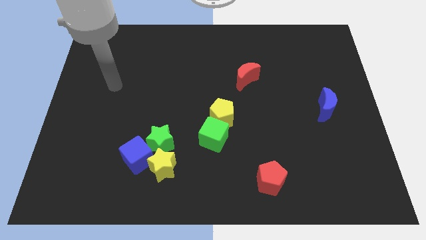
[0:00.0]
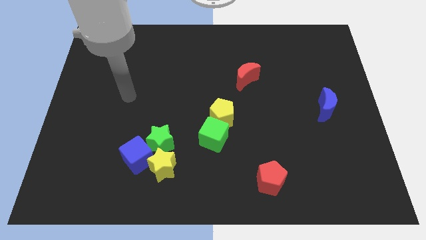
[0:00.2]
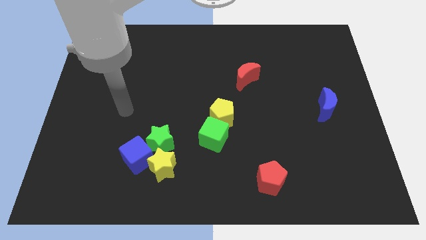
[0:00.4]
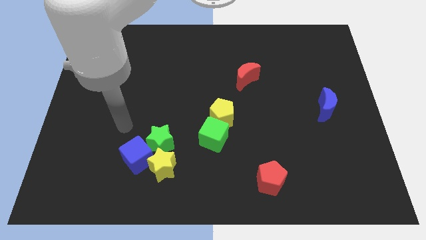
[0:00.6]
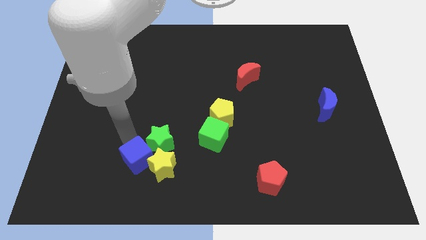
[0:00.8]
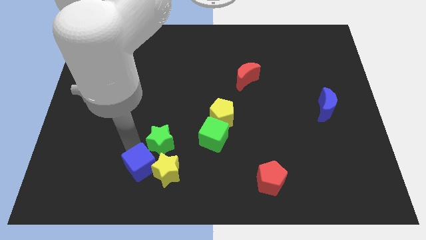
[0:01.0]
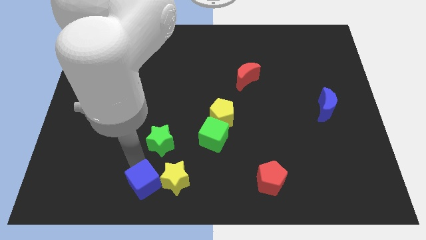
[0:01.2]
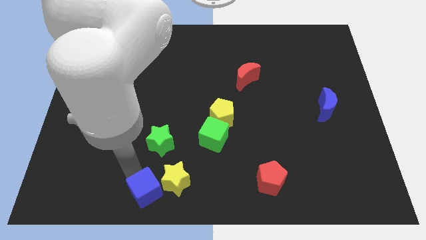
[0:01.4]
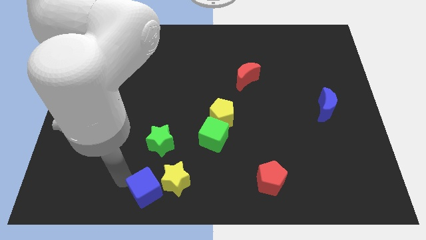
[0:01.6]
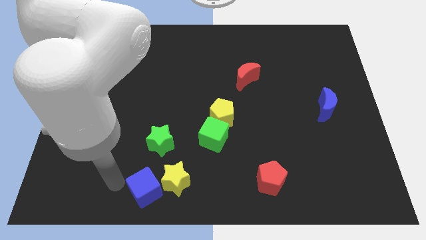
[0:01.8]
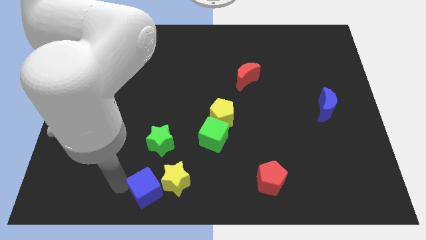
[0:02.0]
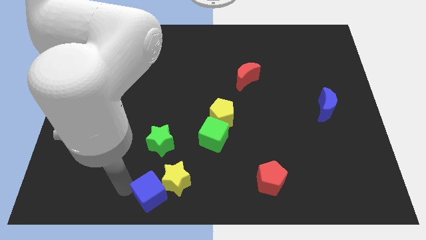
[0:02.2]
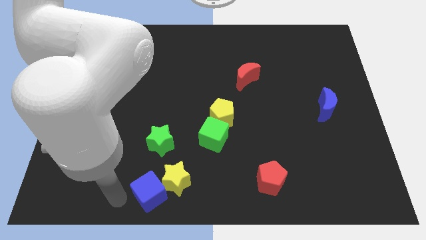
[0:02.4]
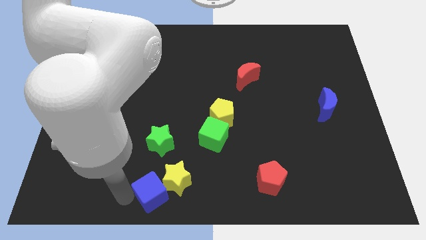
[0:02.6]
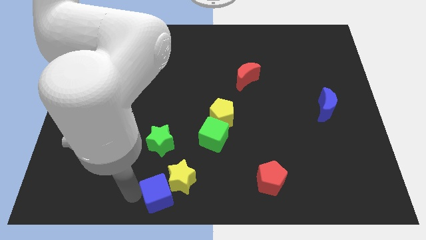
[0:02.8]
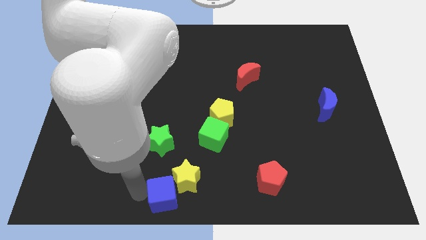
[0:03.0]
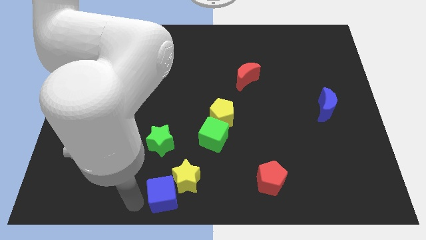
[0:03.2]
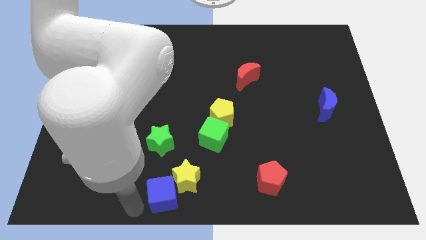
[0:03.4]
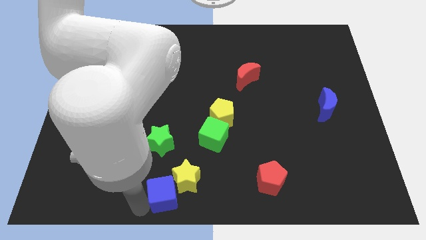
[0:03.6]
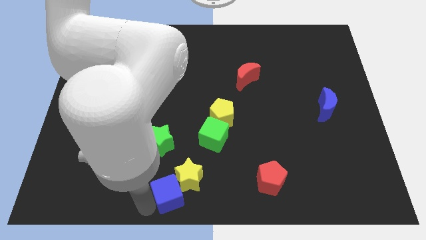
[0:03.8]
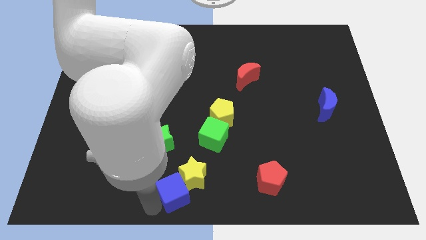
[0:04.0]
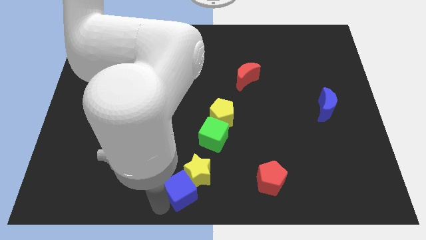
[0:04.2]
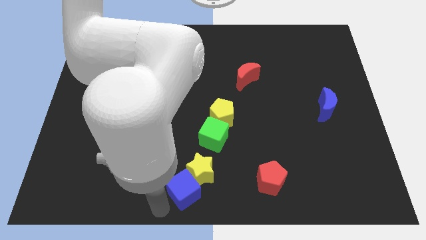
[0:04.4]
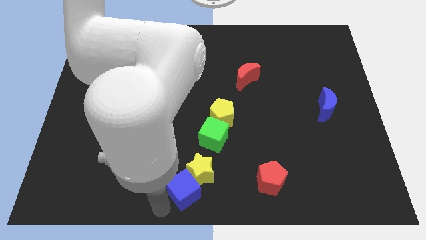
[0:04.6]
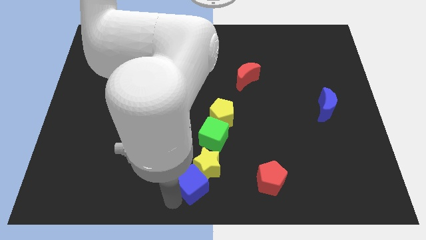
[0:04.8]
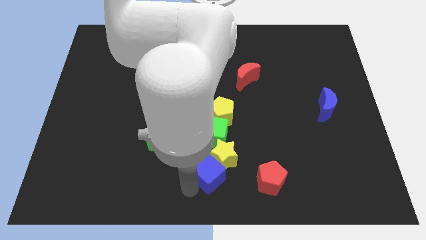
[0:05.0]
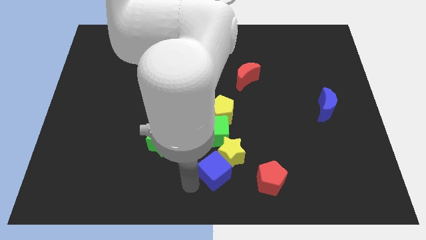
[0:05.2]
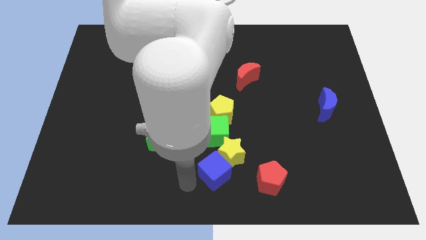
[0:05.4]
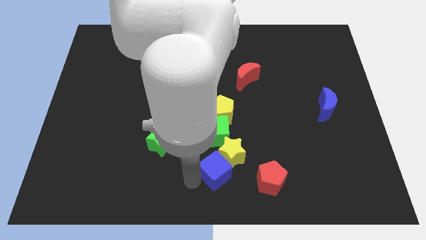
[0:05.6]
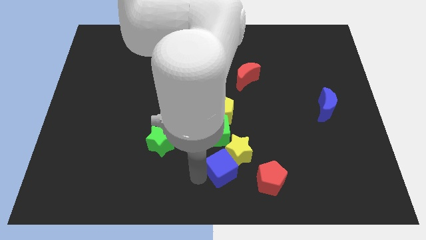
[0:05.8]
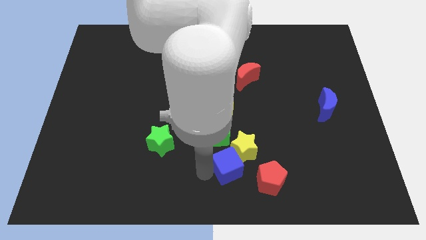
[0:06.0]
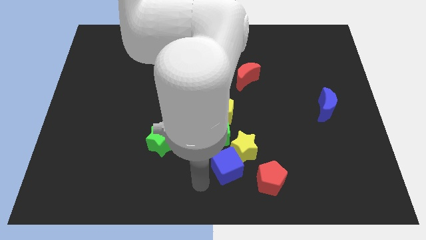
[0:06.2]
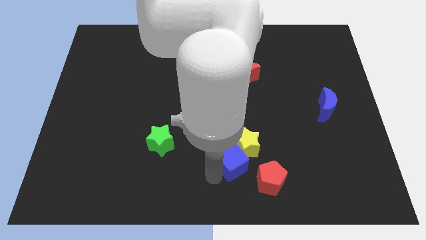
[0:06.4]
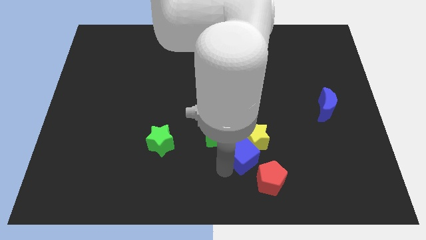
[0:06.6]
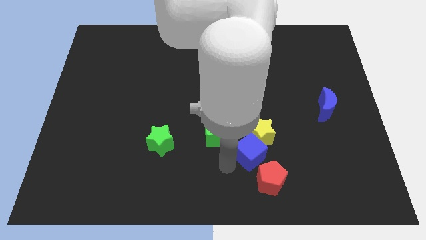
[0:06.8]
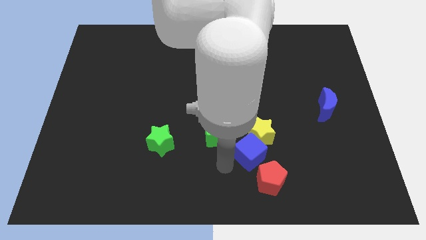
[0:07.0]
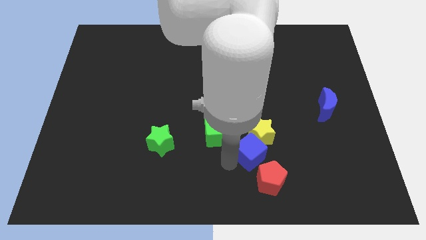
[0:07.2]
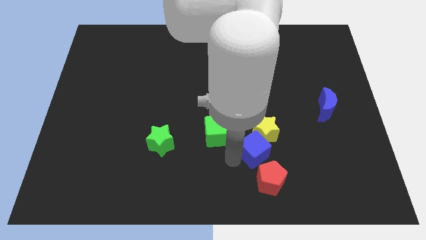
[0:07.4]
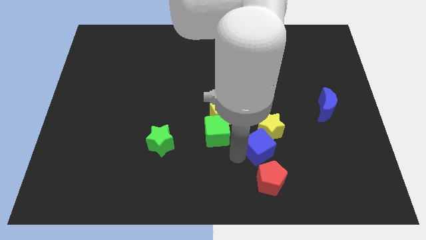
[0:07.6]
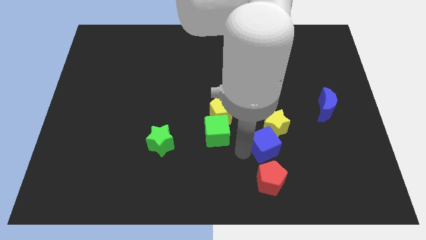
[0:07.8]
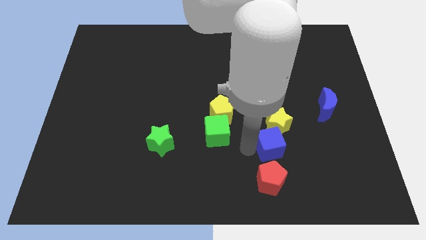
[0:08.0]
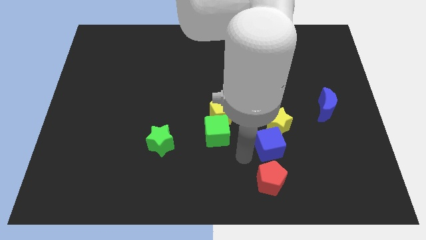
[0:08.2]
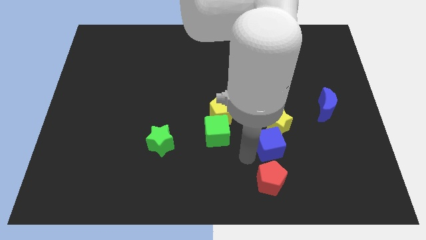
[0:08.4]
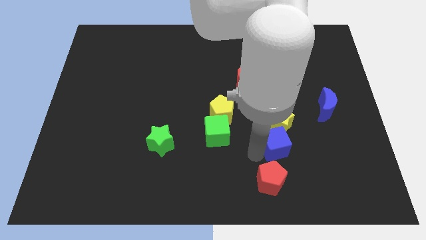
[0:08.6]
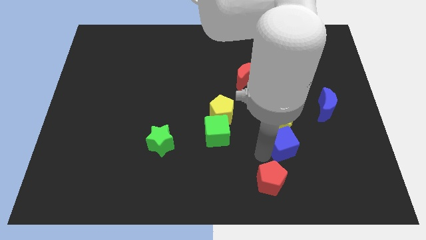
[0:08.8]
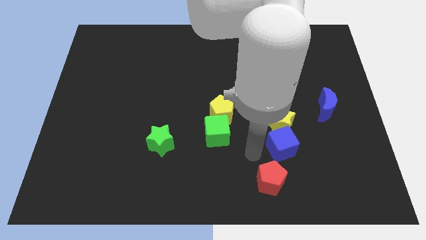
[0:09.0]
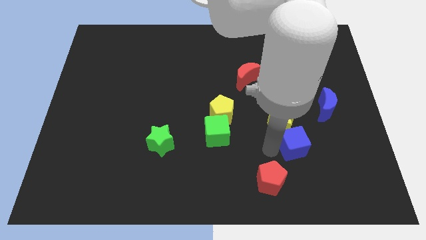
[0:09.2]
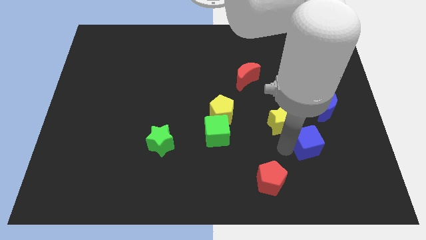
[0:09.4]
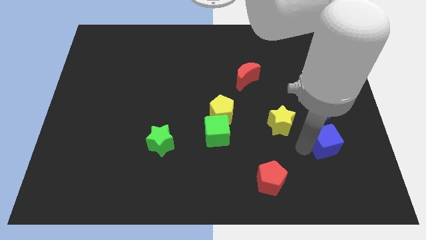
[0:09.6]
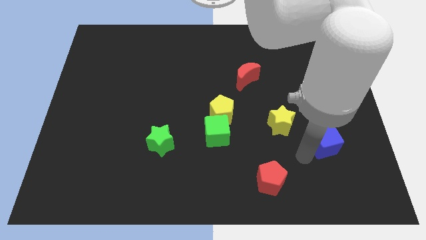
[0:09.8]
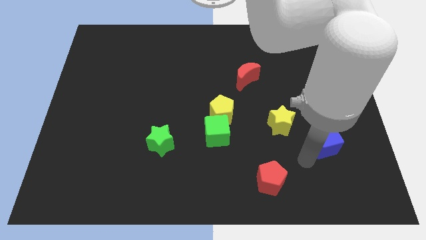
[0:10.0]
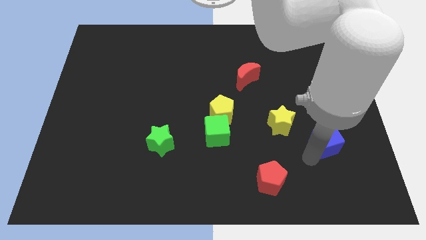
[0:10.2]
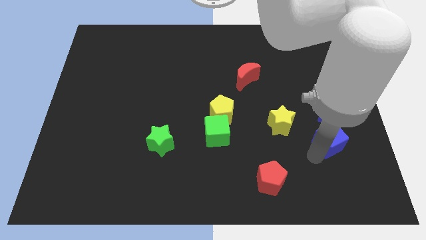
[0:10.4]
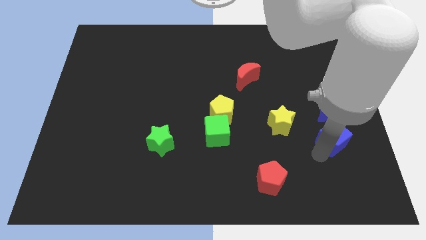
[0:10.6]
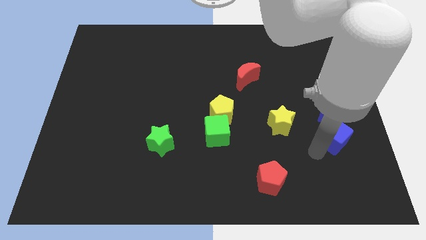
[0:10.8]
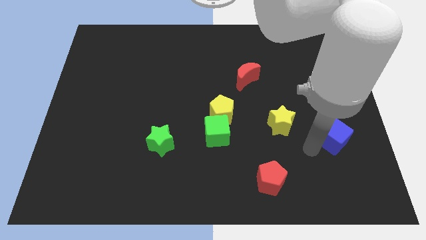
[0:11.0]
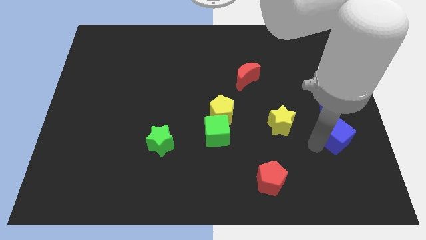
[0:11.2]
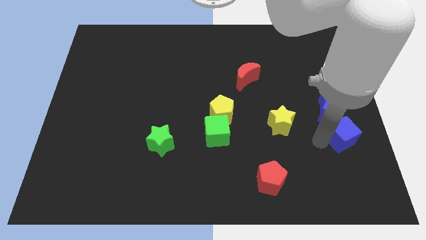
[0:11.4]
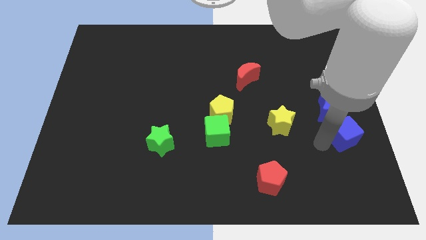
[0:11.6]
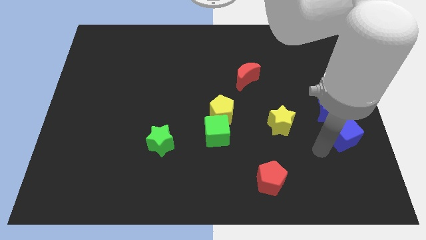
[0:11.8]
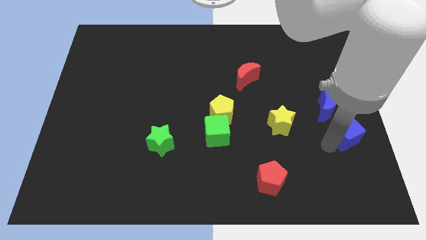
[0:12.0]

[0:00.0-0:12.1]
move the blue cube to the center right

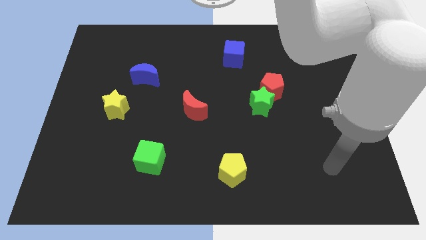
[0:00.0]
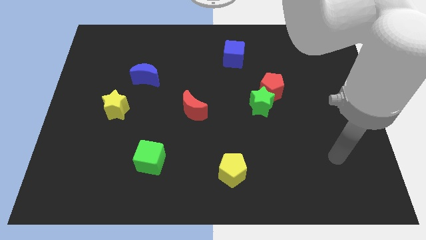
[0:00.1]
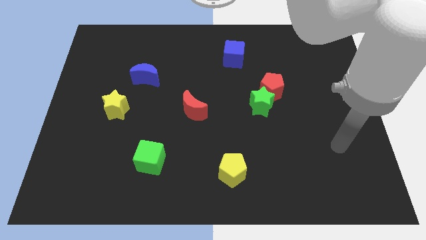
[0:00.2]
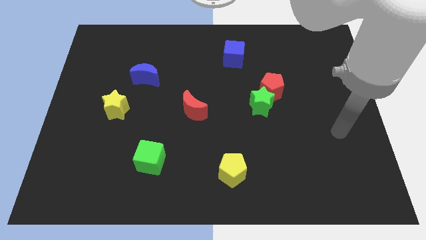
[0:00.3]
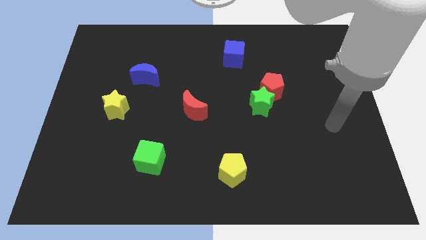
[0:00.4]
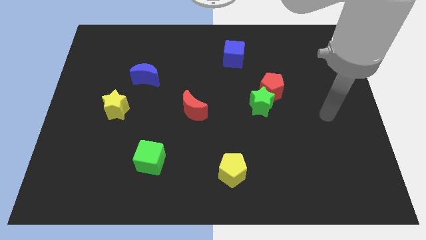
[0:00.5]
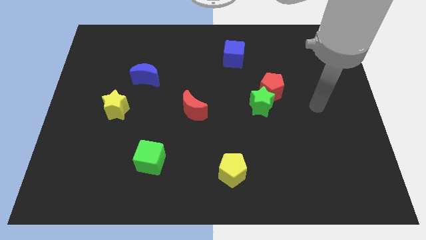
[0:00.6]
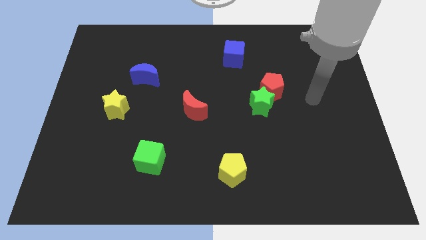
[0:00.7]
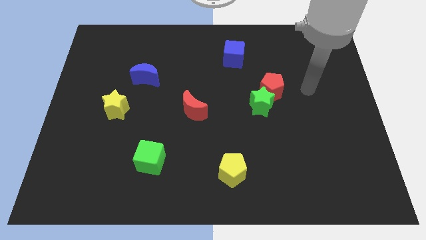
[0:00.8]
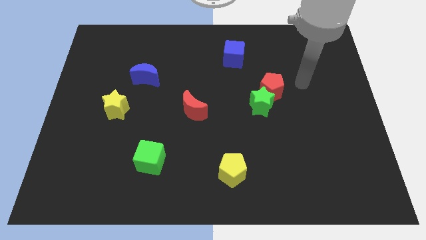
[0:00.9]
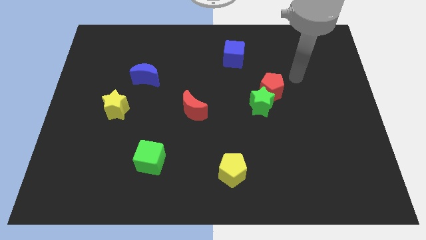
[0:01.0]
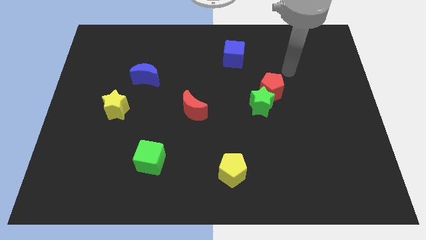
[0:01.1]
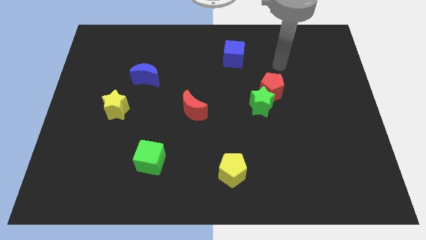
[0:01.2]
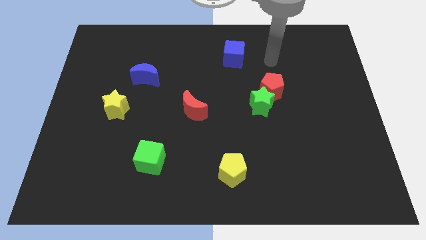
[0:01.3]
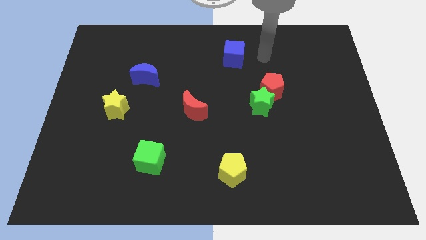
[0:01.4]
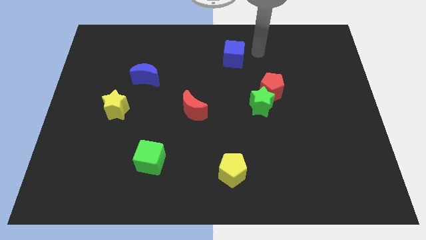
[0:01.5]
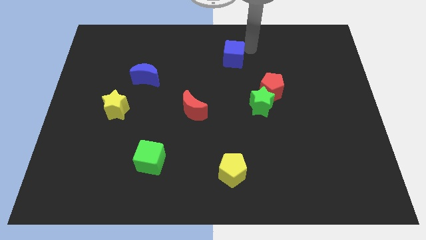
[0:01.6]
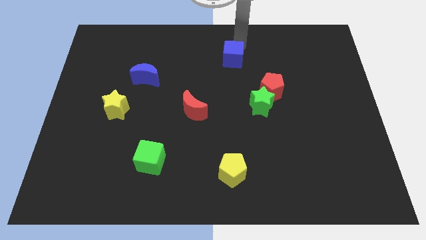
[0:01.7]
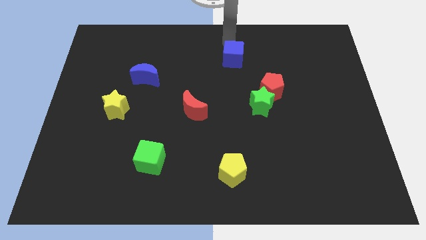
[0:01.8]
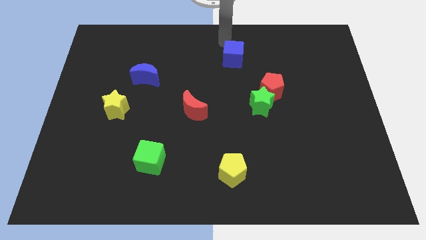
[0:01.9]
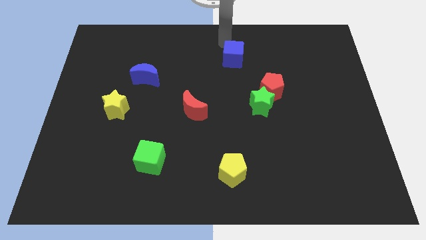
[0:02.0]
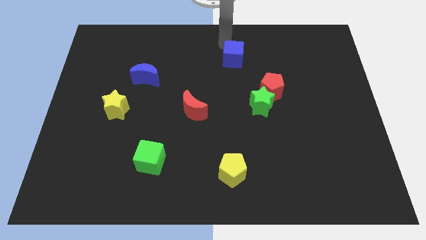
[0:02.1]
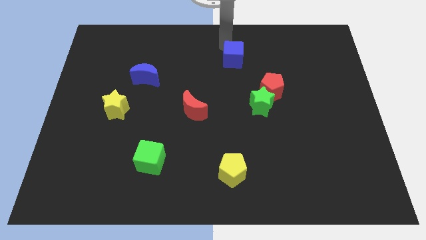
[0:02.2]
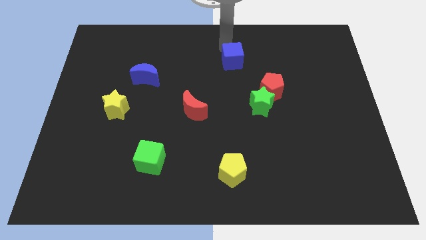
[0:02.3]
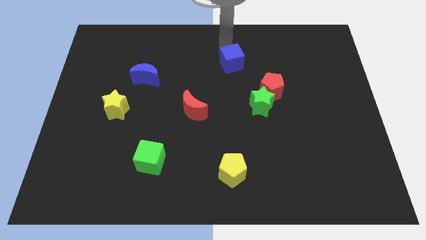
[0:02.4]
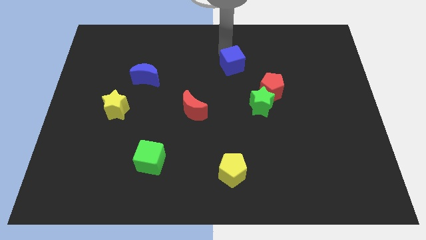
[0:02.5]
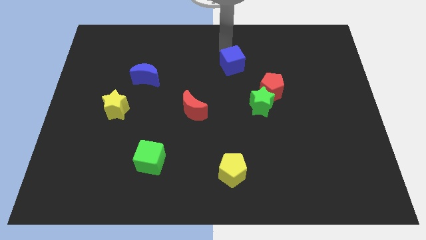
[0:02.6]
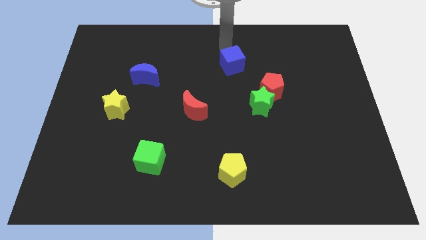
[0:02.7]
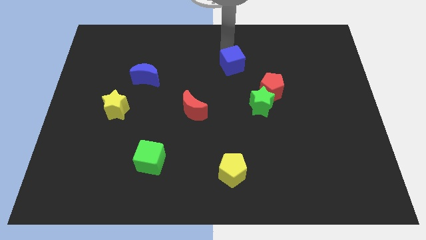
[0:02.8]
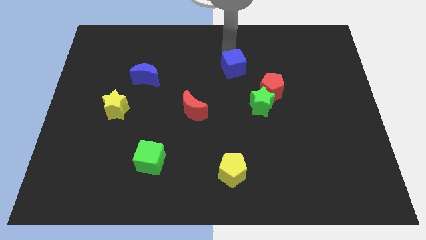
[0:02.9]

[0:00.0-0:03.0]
slide the blue cube to the center of the board
